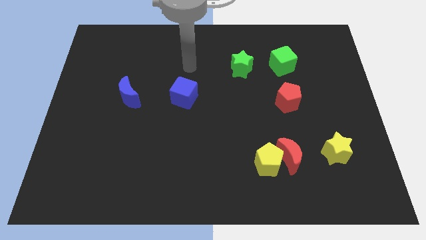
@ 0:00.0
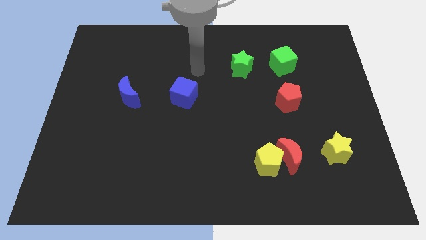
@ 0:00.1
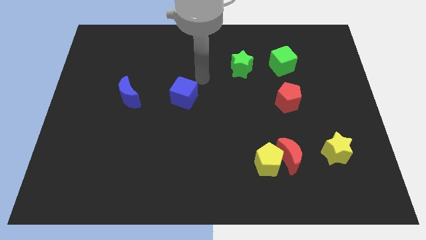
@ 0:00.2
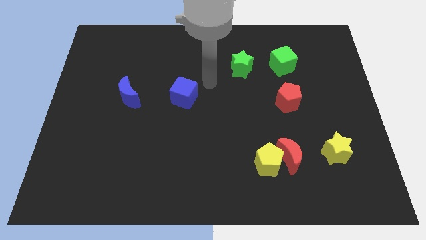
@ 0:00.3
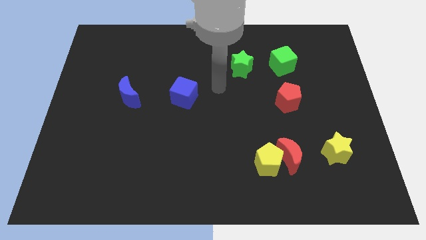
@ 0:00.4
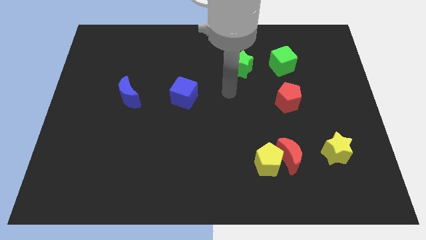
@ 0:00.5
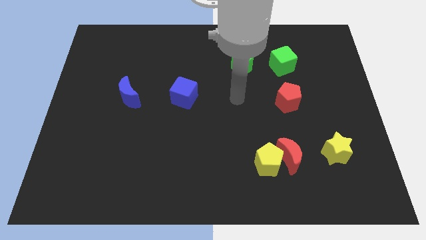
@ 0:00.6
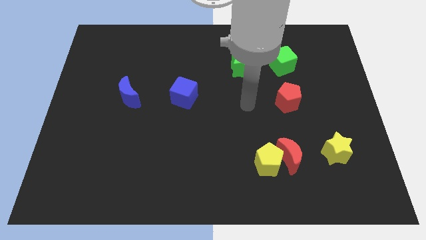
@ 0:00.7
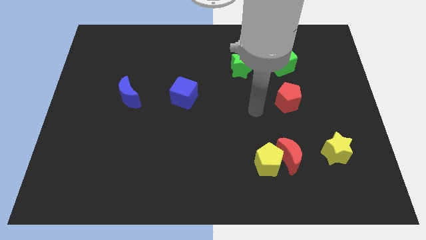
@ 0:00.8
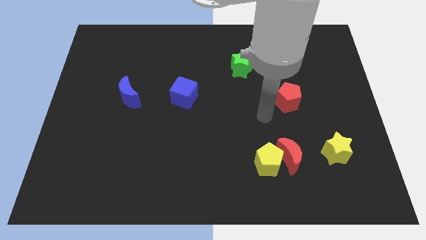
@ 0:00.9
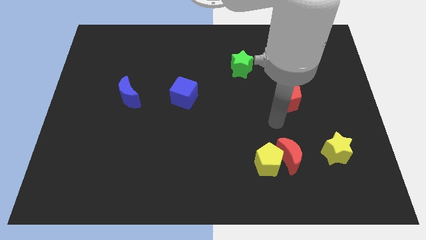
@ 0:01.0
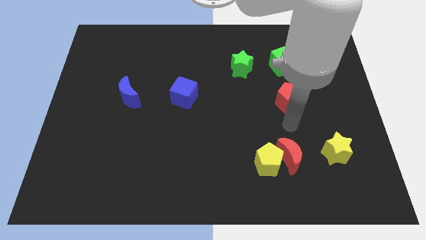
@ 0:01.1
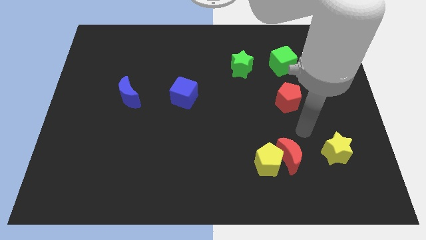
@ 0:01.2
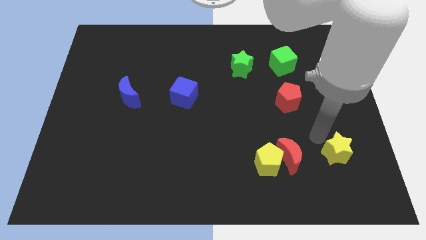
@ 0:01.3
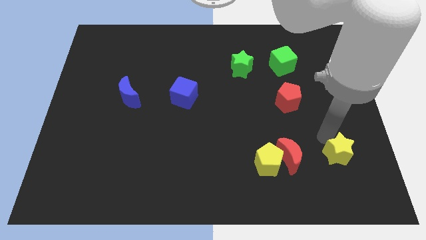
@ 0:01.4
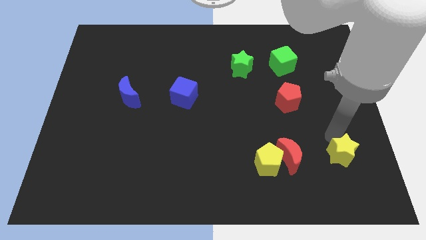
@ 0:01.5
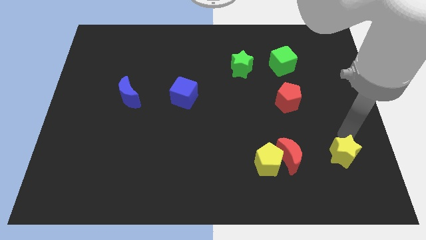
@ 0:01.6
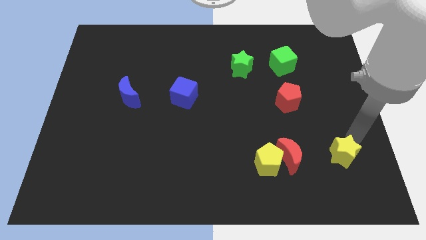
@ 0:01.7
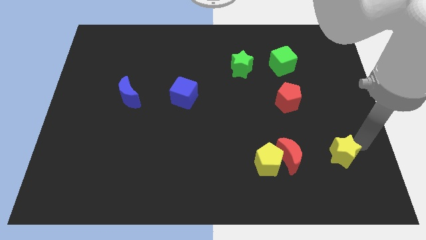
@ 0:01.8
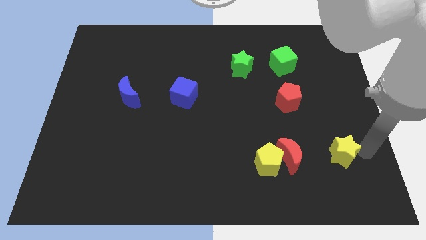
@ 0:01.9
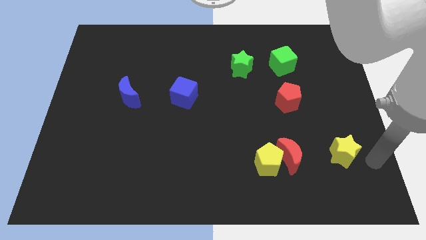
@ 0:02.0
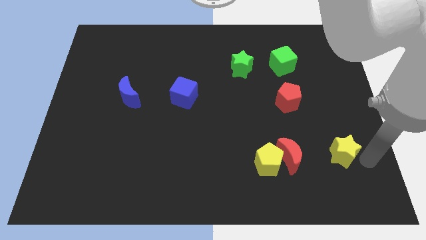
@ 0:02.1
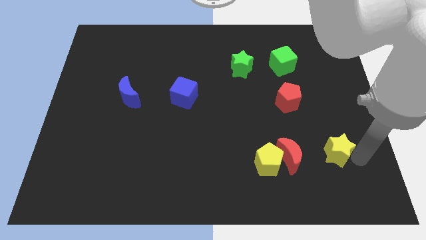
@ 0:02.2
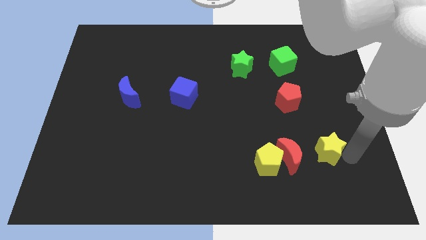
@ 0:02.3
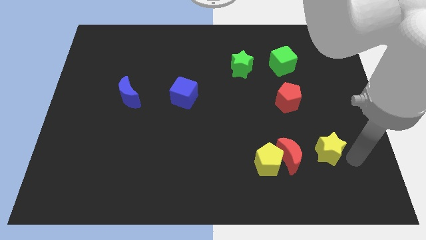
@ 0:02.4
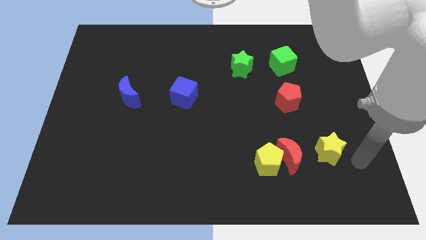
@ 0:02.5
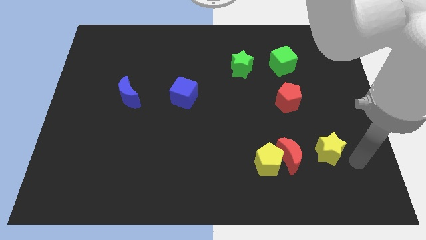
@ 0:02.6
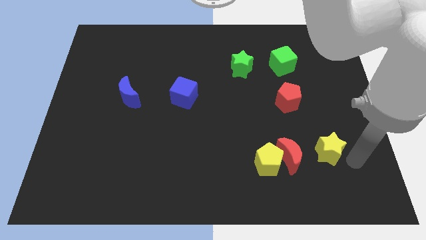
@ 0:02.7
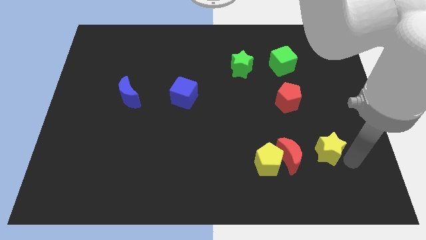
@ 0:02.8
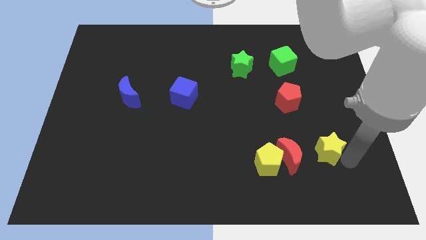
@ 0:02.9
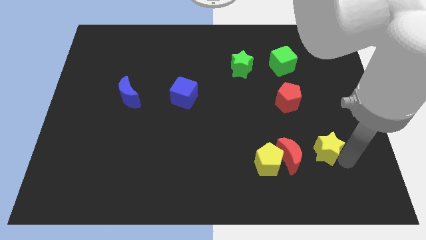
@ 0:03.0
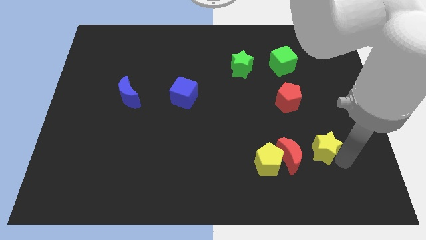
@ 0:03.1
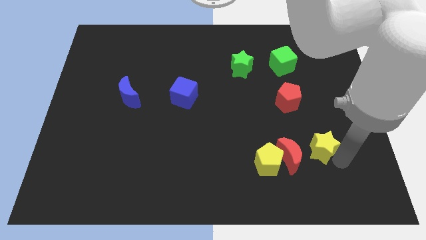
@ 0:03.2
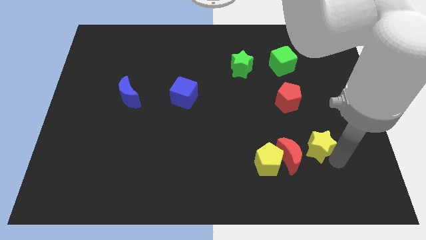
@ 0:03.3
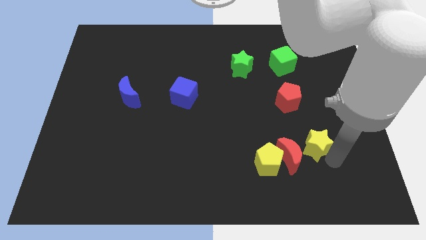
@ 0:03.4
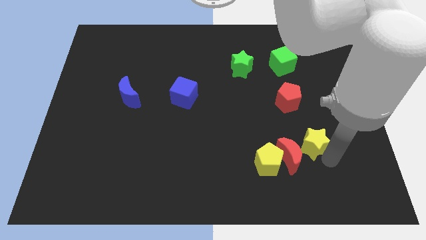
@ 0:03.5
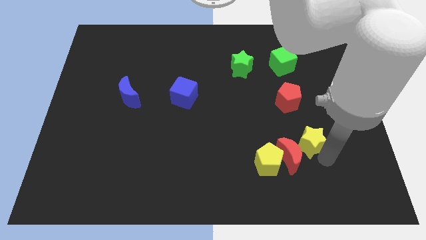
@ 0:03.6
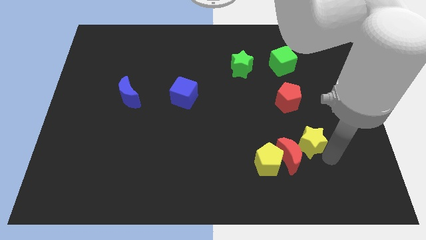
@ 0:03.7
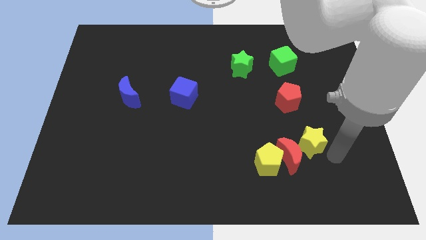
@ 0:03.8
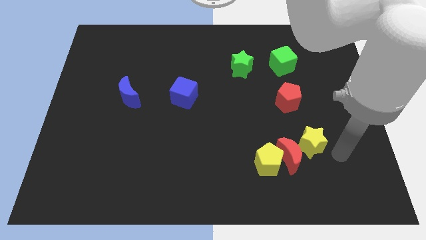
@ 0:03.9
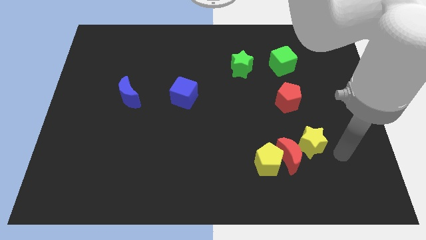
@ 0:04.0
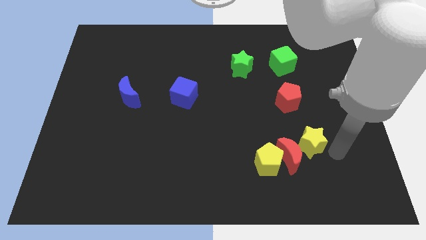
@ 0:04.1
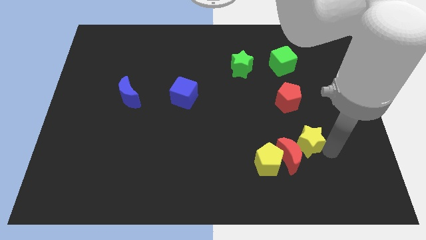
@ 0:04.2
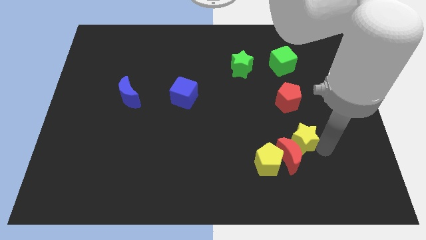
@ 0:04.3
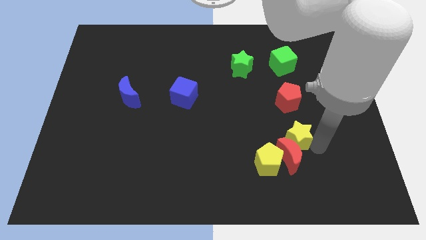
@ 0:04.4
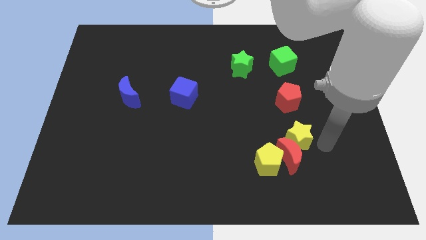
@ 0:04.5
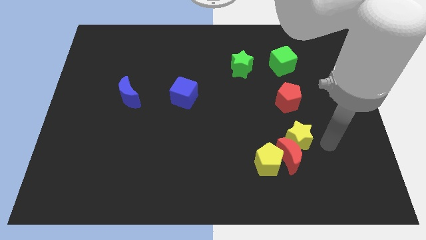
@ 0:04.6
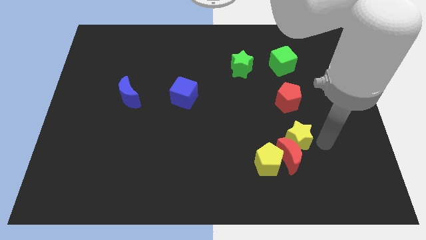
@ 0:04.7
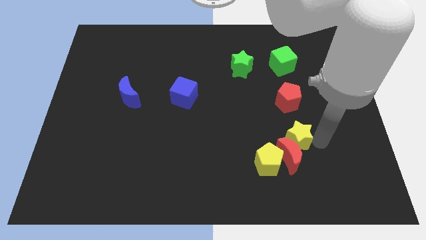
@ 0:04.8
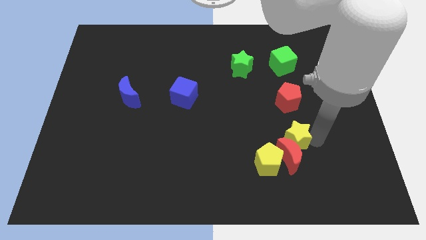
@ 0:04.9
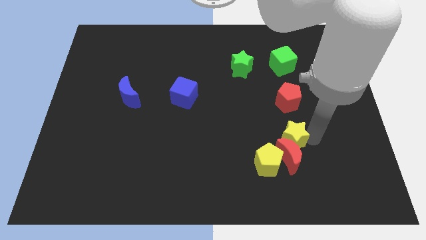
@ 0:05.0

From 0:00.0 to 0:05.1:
push the yellow star to the top left side of the red moon

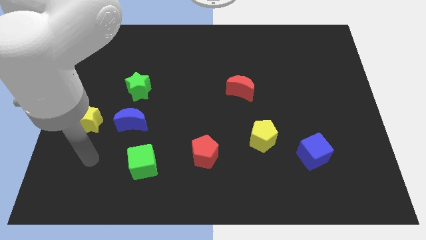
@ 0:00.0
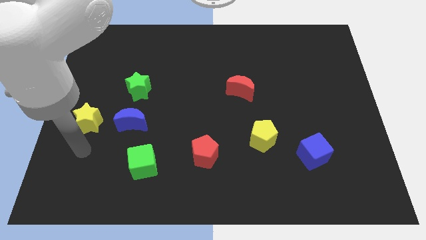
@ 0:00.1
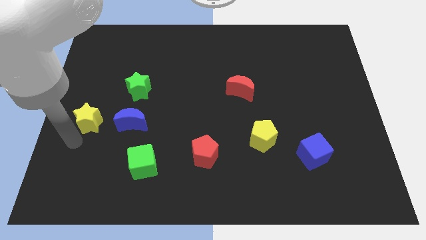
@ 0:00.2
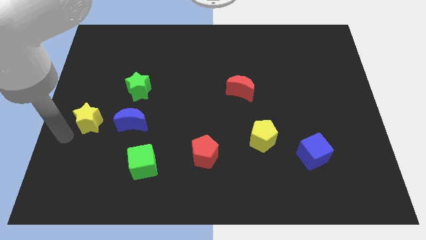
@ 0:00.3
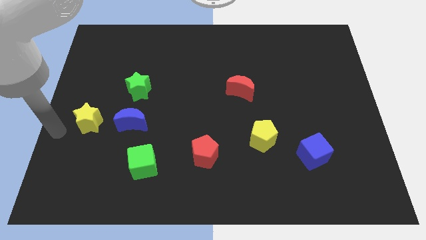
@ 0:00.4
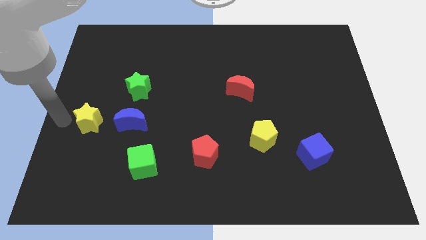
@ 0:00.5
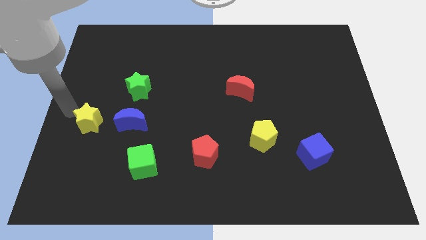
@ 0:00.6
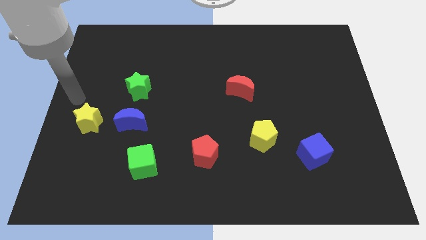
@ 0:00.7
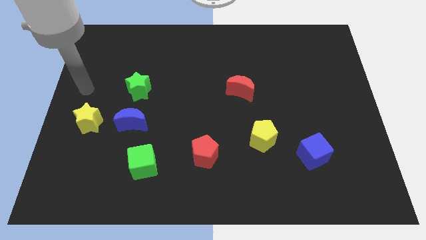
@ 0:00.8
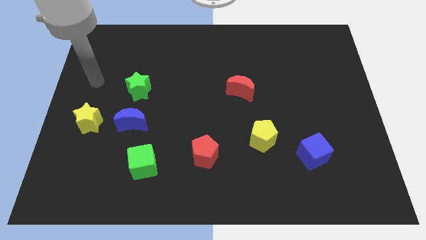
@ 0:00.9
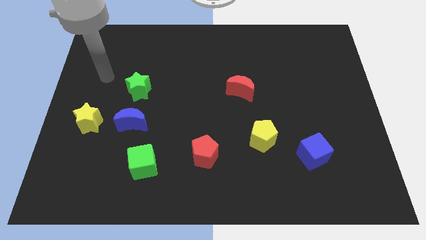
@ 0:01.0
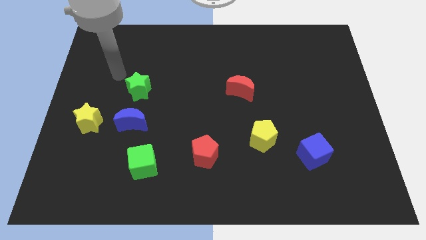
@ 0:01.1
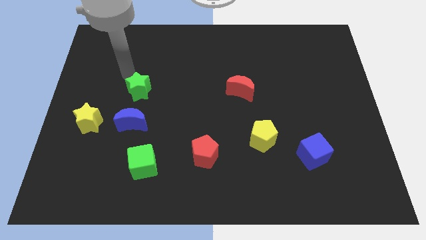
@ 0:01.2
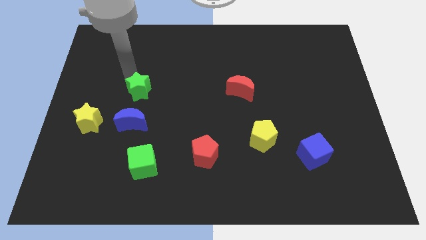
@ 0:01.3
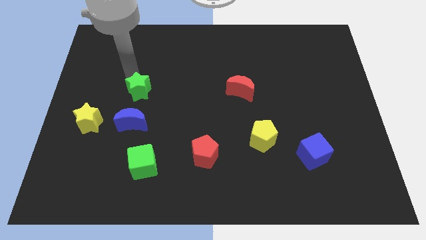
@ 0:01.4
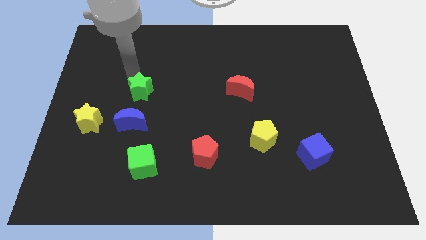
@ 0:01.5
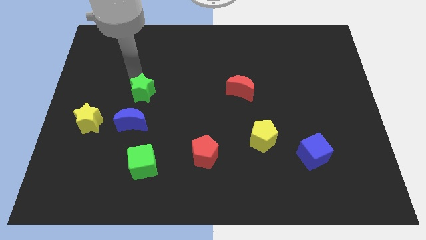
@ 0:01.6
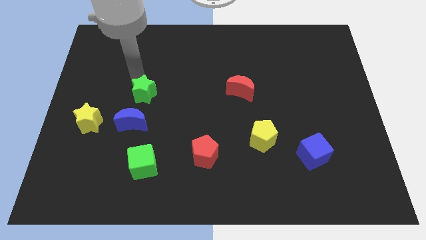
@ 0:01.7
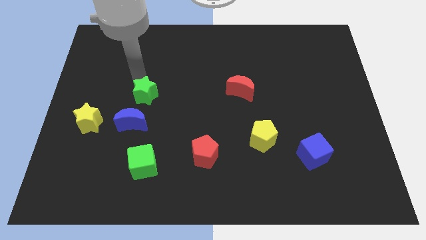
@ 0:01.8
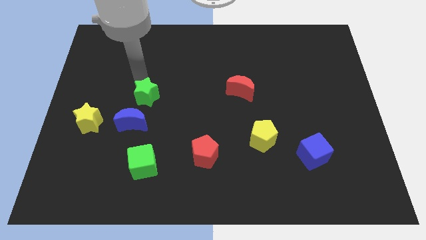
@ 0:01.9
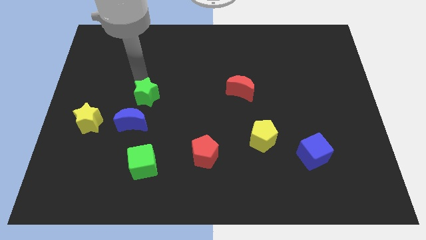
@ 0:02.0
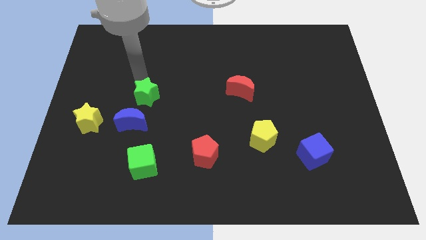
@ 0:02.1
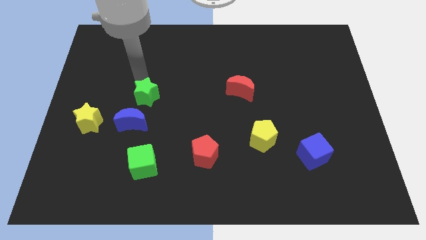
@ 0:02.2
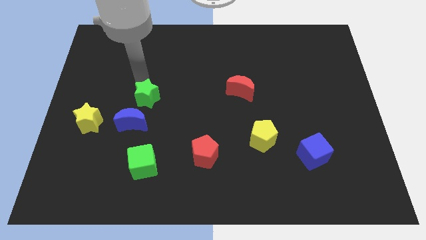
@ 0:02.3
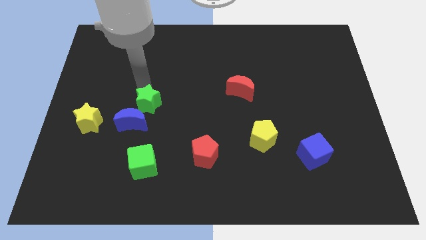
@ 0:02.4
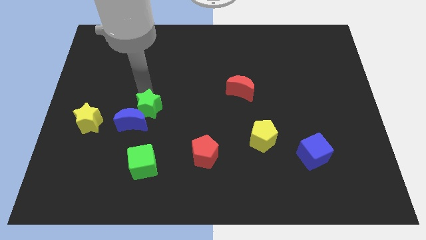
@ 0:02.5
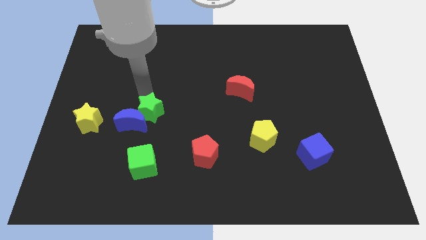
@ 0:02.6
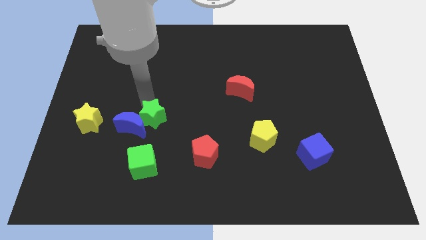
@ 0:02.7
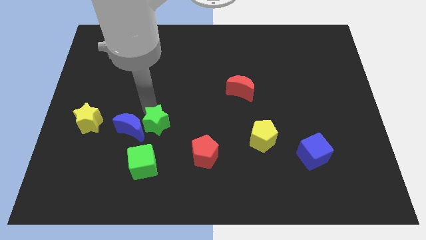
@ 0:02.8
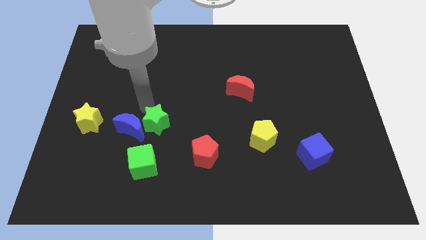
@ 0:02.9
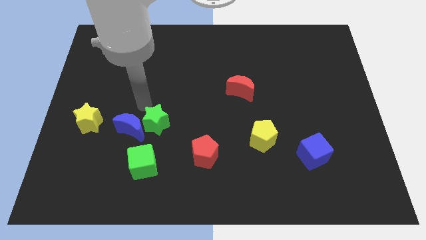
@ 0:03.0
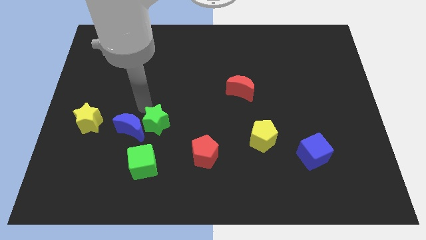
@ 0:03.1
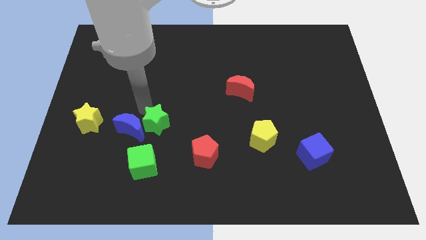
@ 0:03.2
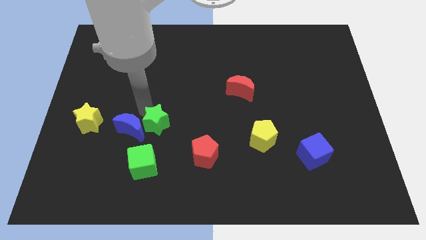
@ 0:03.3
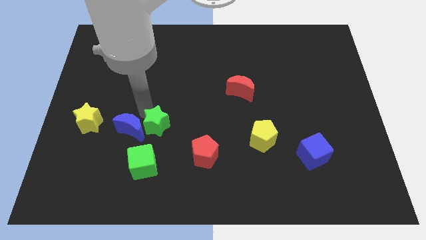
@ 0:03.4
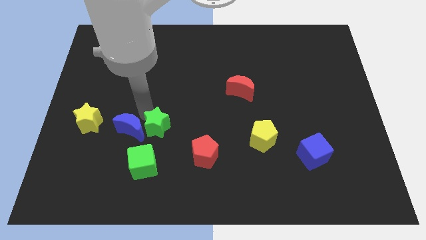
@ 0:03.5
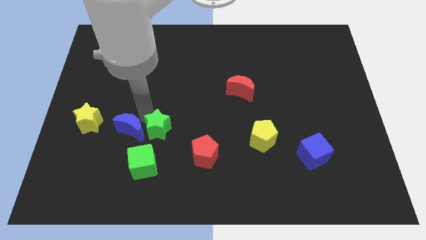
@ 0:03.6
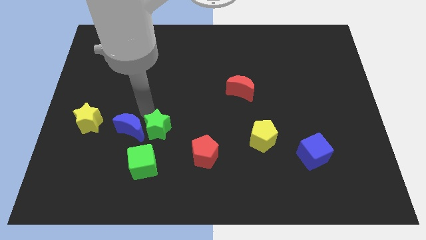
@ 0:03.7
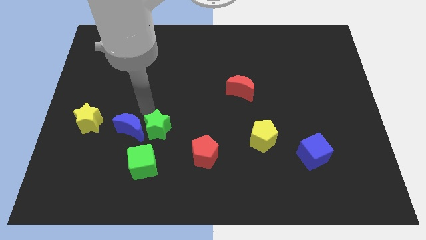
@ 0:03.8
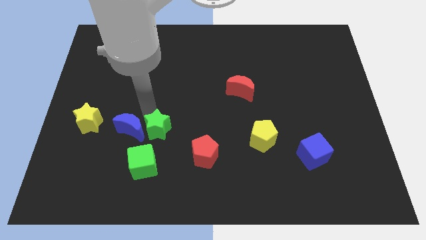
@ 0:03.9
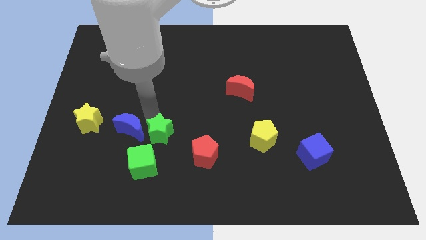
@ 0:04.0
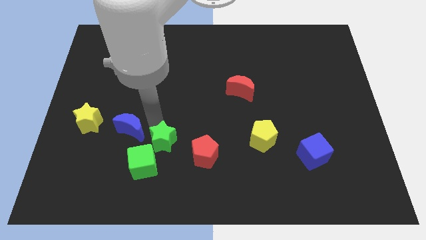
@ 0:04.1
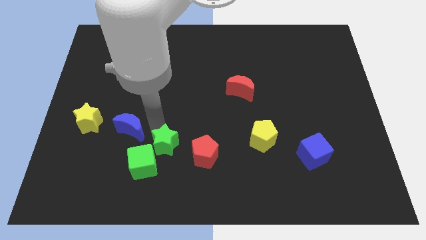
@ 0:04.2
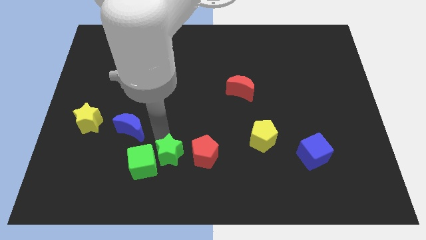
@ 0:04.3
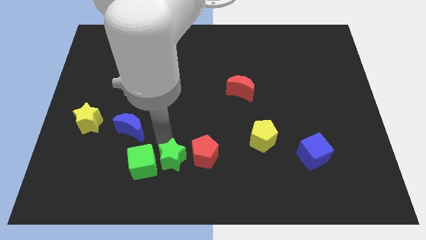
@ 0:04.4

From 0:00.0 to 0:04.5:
push the green star to the bottom left side of the red pentagon
